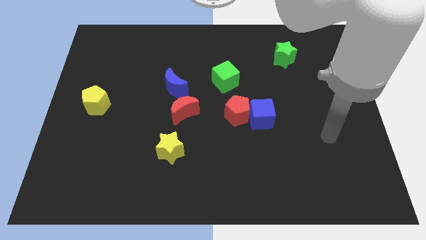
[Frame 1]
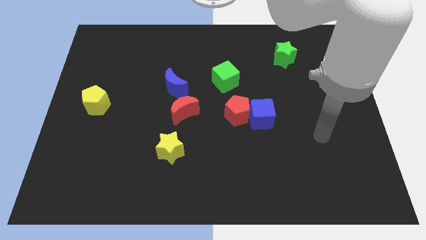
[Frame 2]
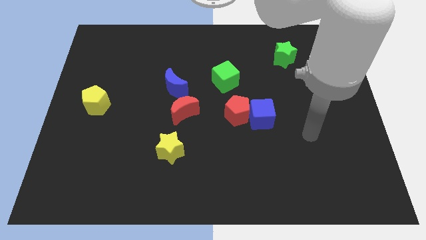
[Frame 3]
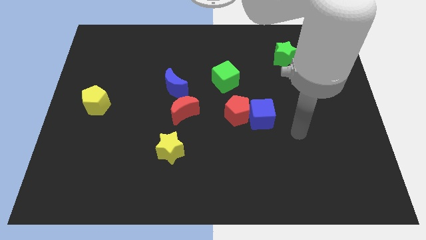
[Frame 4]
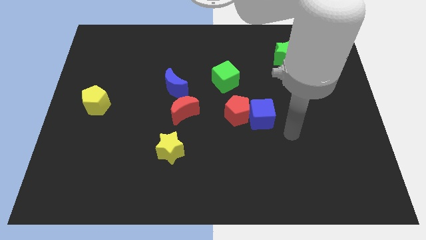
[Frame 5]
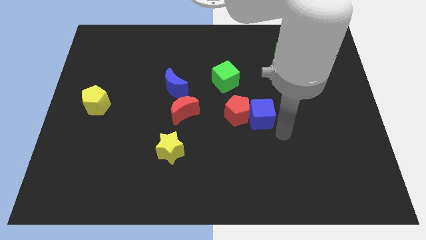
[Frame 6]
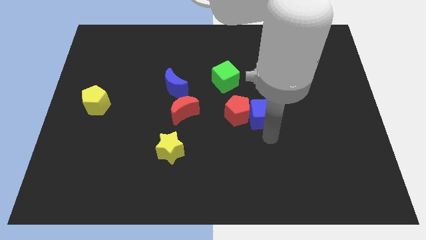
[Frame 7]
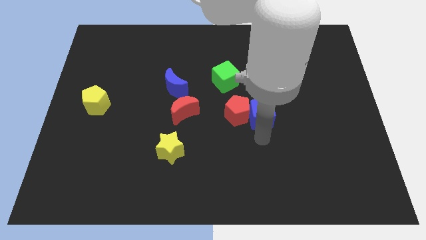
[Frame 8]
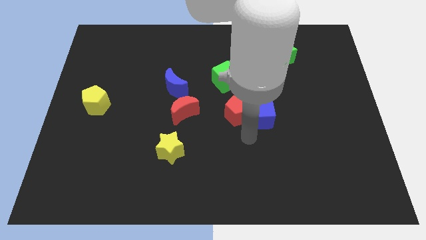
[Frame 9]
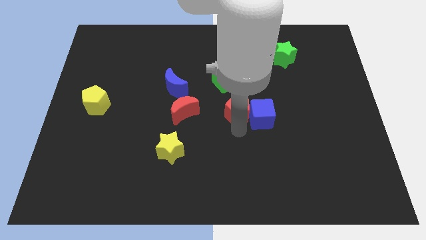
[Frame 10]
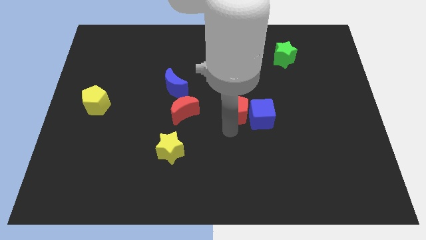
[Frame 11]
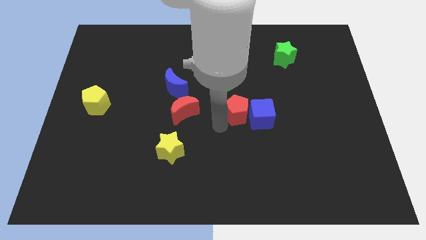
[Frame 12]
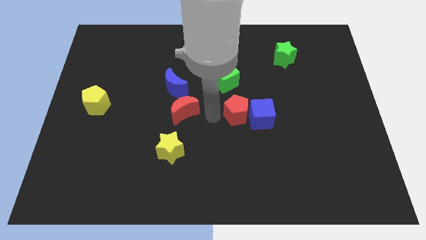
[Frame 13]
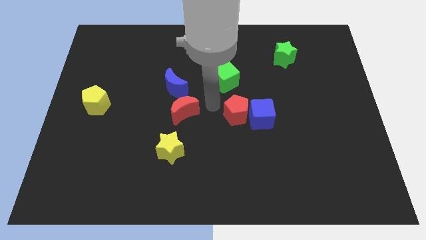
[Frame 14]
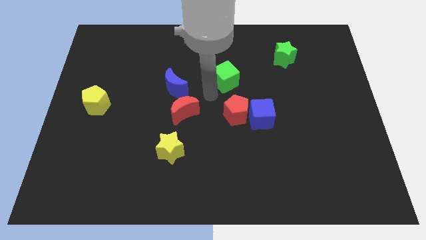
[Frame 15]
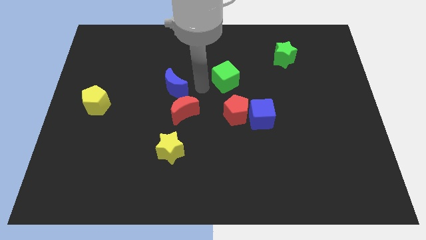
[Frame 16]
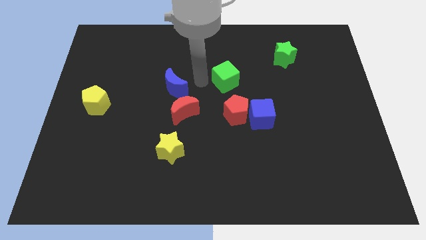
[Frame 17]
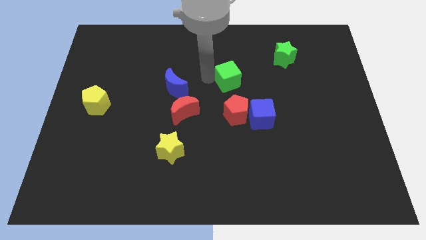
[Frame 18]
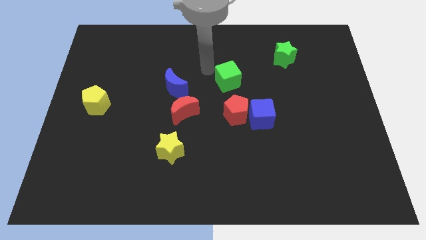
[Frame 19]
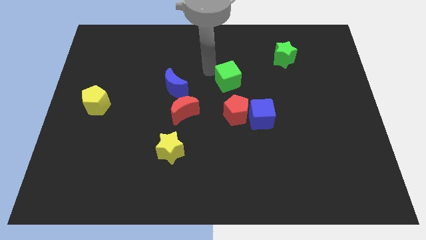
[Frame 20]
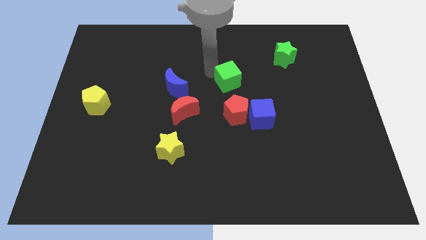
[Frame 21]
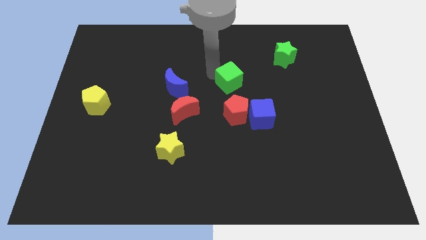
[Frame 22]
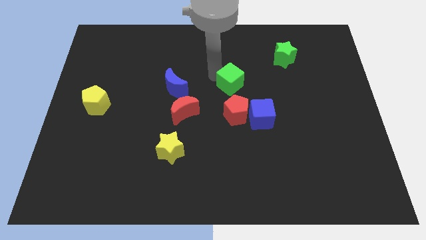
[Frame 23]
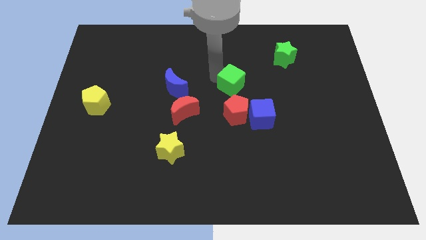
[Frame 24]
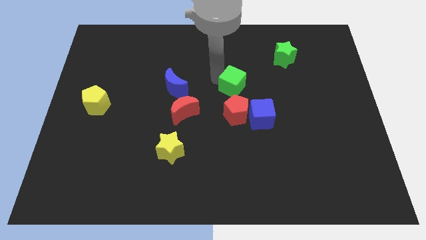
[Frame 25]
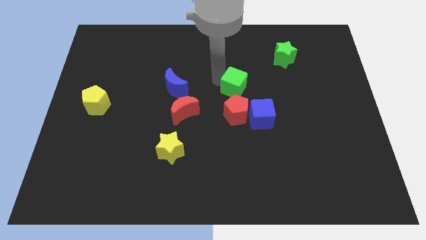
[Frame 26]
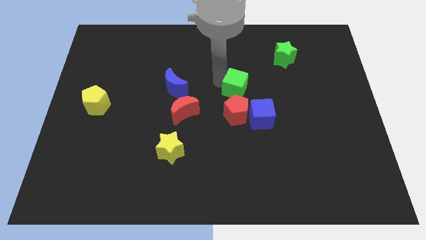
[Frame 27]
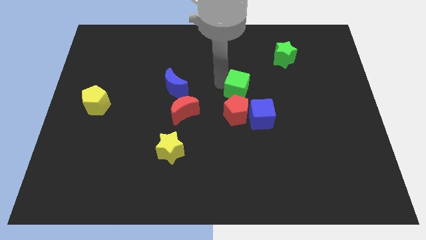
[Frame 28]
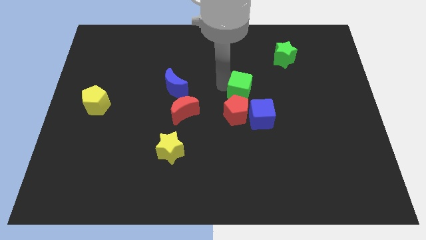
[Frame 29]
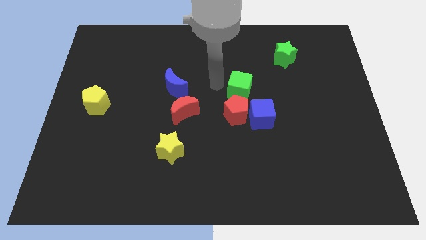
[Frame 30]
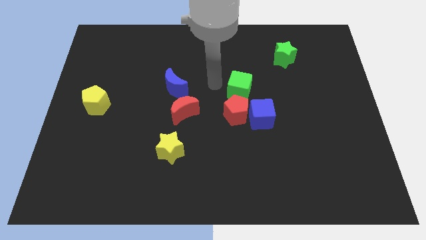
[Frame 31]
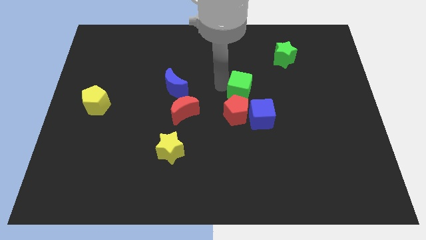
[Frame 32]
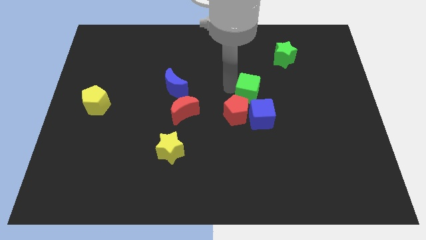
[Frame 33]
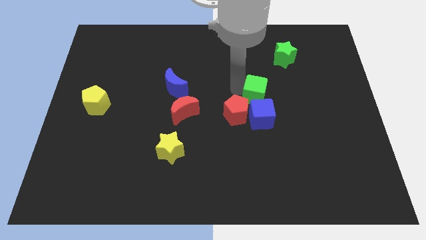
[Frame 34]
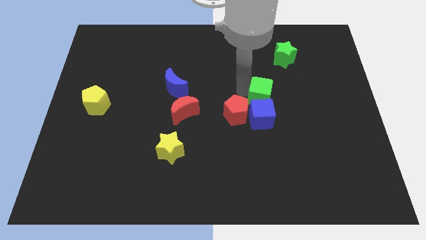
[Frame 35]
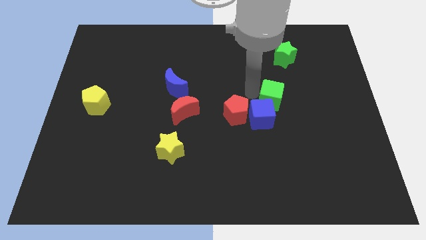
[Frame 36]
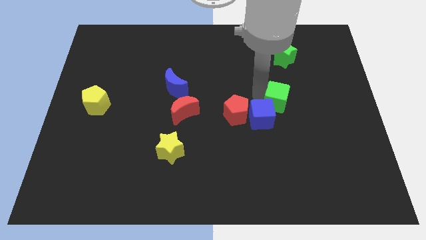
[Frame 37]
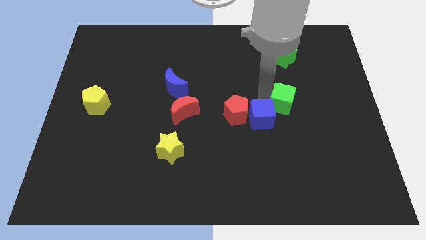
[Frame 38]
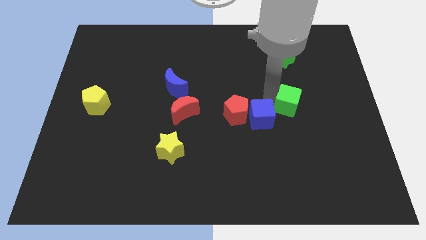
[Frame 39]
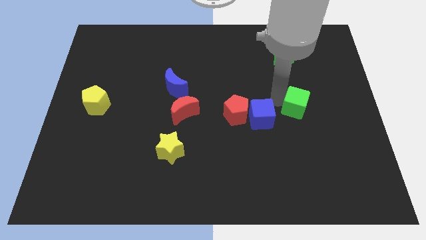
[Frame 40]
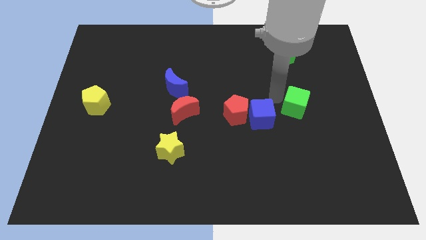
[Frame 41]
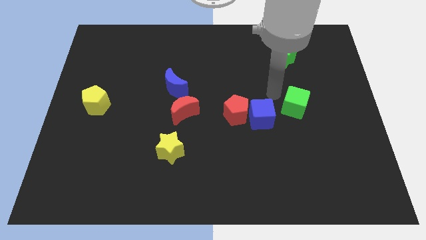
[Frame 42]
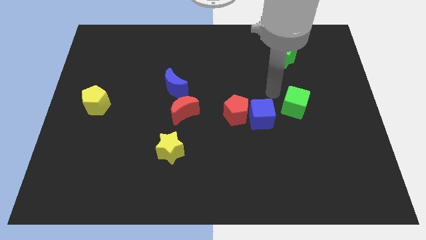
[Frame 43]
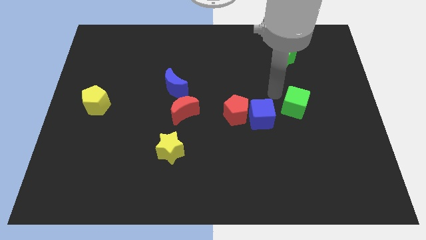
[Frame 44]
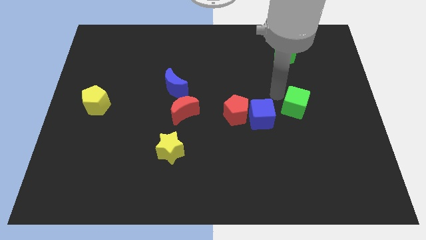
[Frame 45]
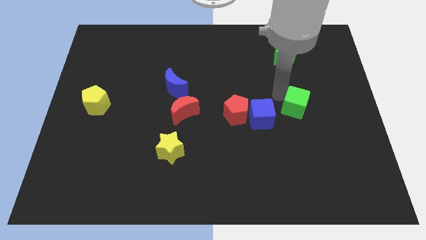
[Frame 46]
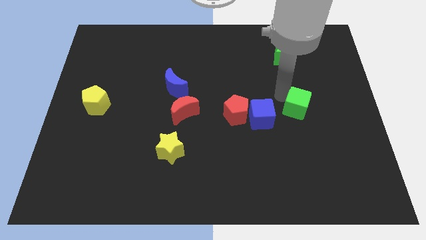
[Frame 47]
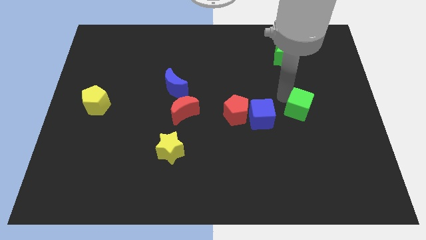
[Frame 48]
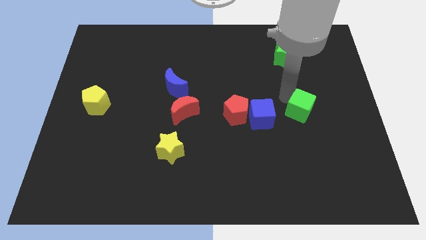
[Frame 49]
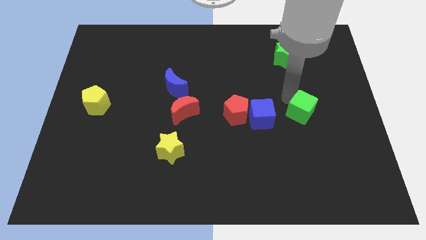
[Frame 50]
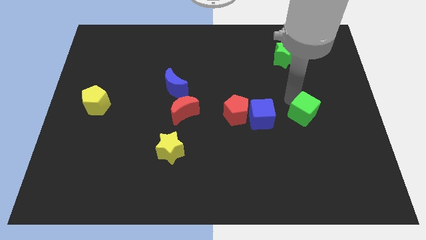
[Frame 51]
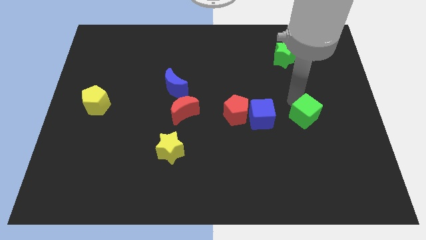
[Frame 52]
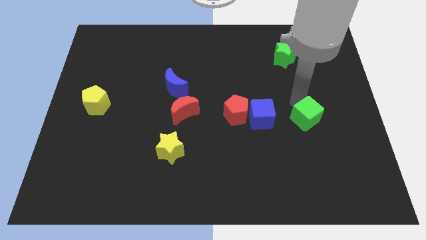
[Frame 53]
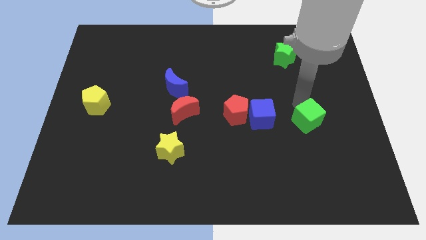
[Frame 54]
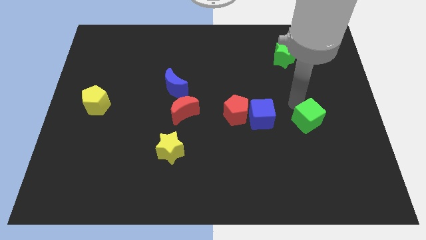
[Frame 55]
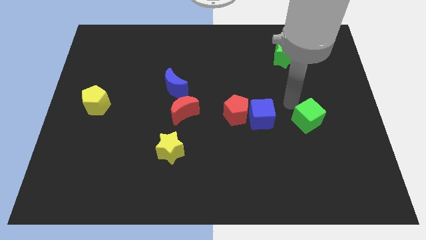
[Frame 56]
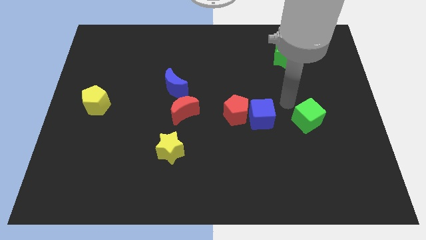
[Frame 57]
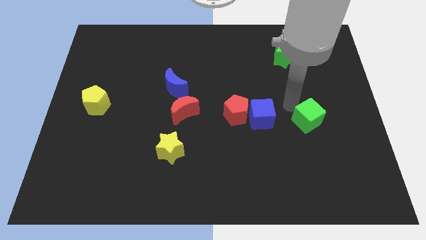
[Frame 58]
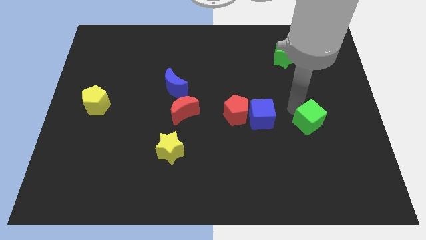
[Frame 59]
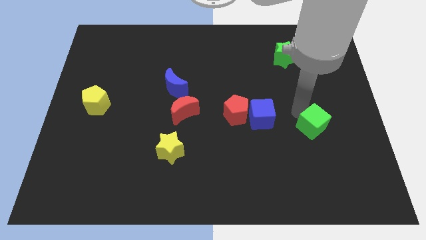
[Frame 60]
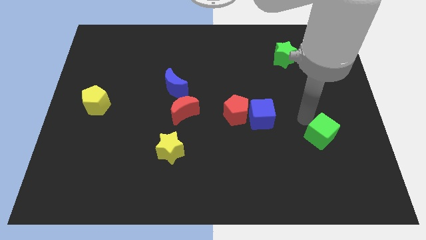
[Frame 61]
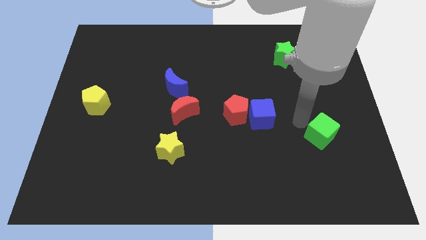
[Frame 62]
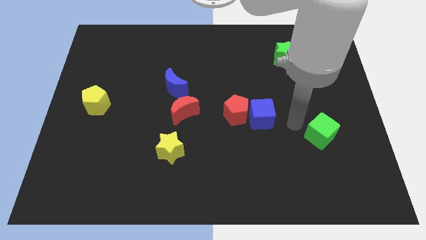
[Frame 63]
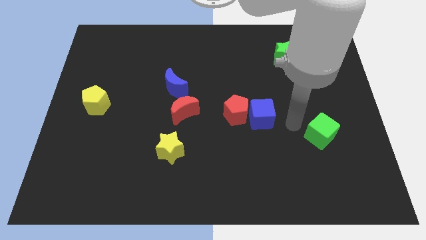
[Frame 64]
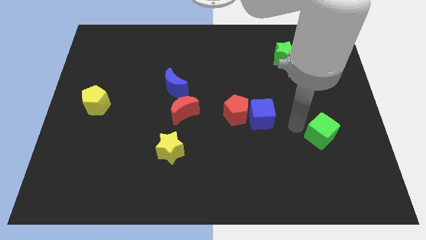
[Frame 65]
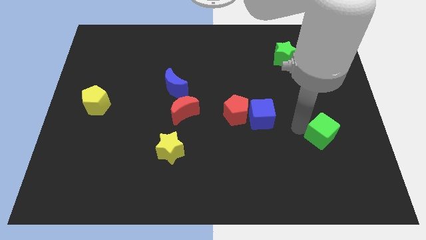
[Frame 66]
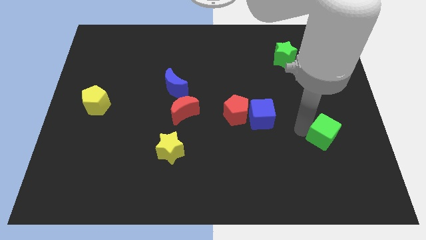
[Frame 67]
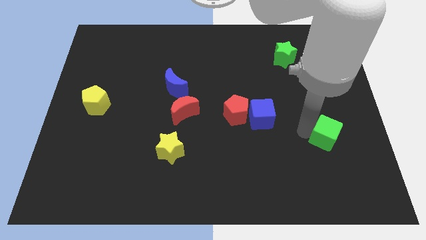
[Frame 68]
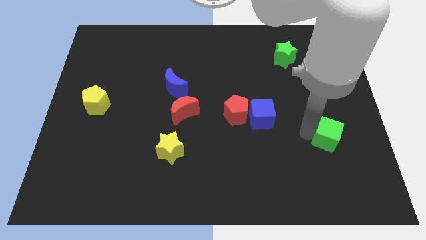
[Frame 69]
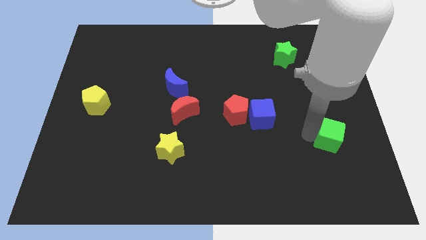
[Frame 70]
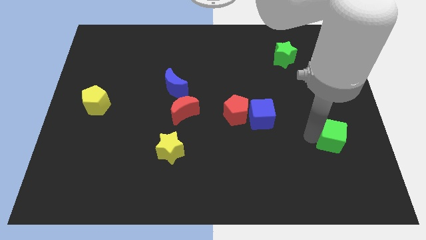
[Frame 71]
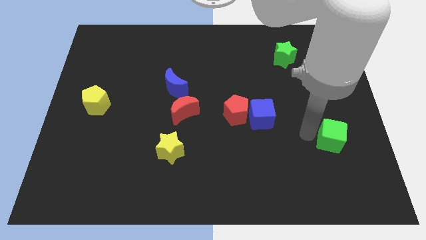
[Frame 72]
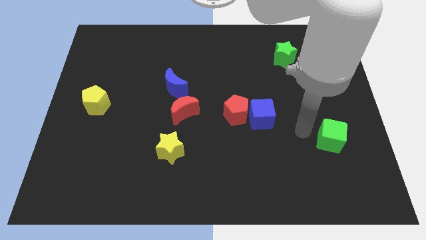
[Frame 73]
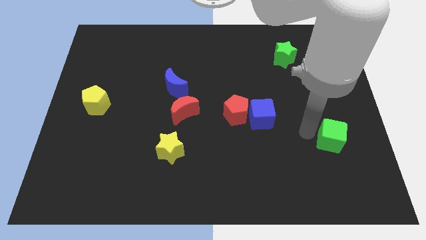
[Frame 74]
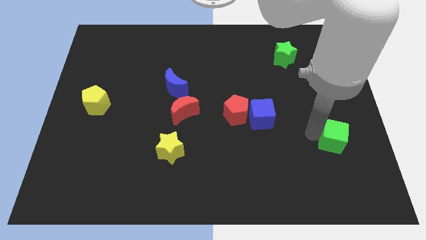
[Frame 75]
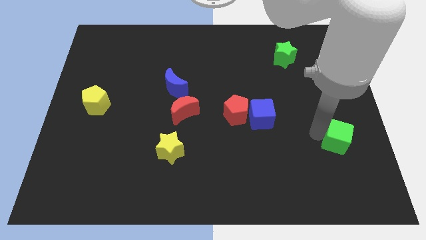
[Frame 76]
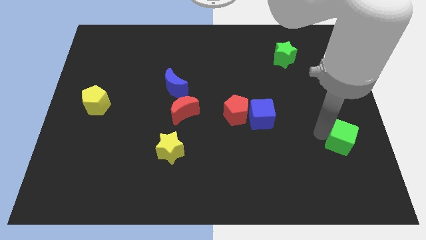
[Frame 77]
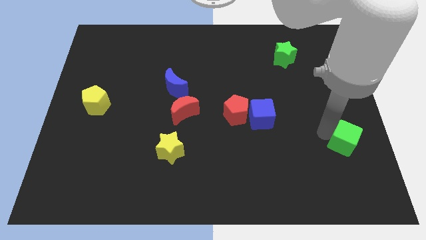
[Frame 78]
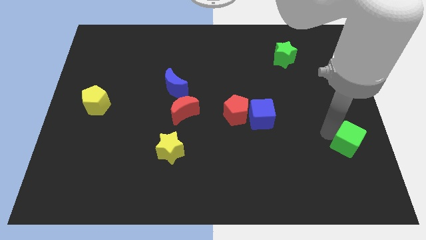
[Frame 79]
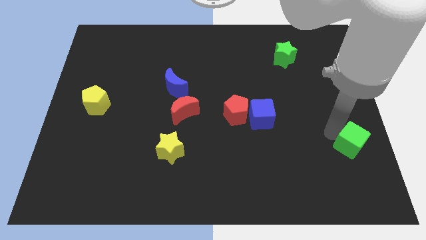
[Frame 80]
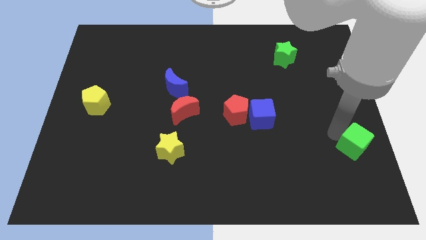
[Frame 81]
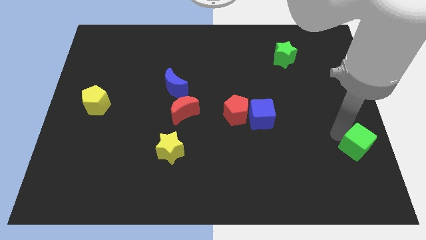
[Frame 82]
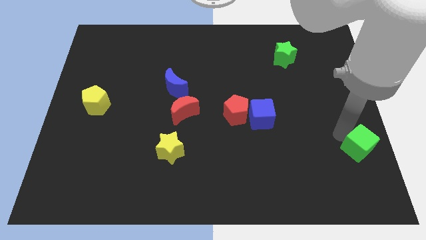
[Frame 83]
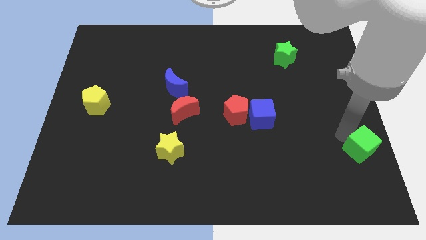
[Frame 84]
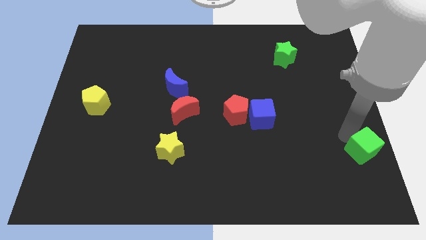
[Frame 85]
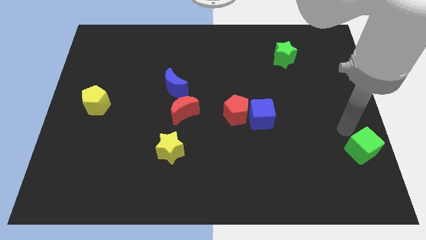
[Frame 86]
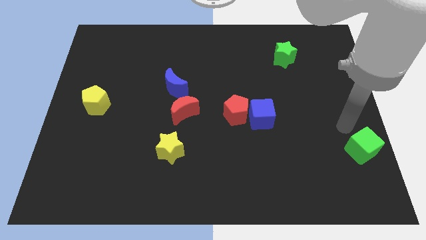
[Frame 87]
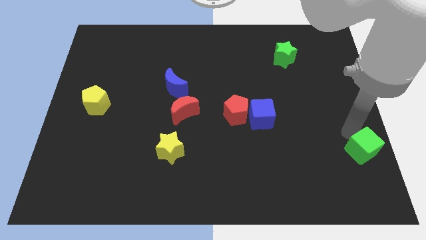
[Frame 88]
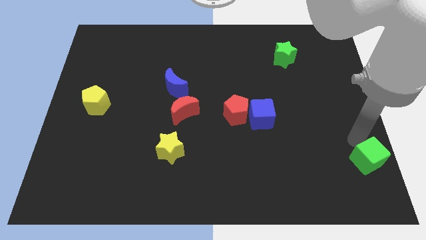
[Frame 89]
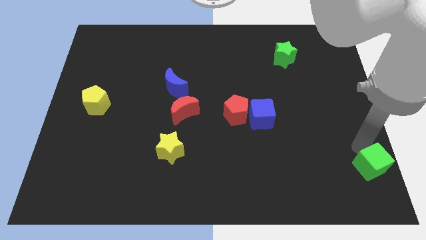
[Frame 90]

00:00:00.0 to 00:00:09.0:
slide the green cube to the bottom right
